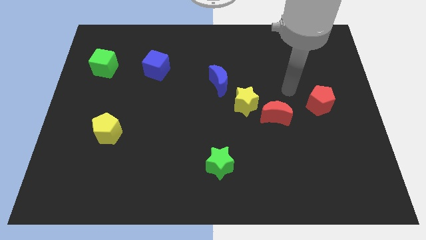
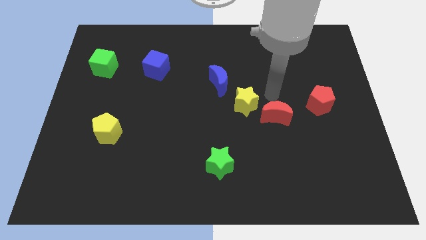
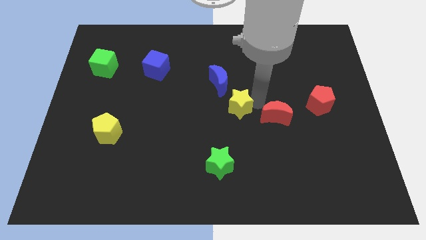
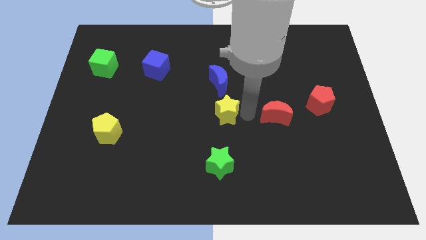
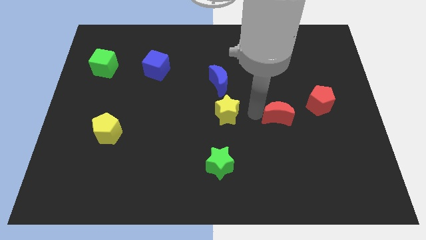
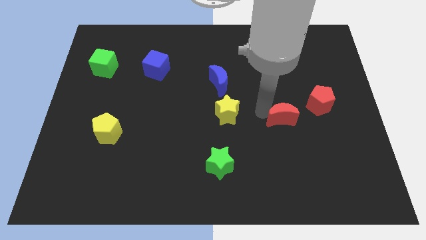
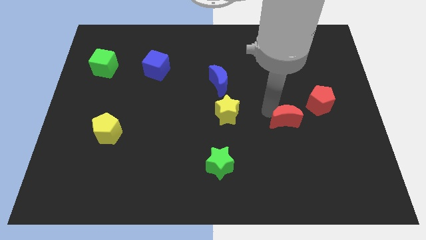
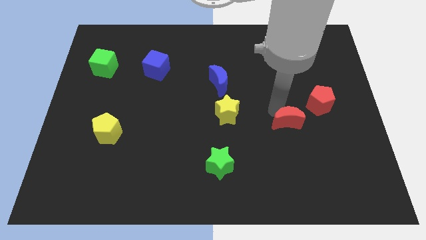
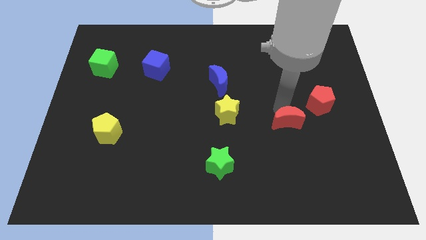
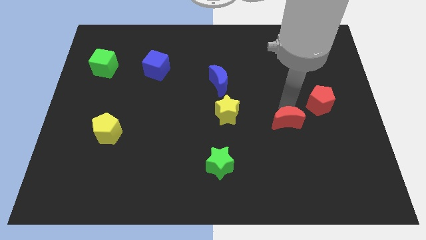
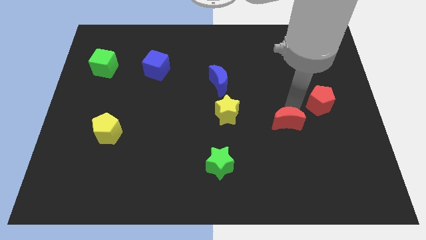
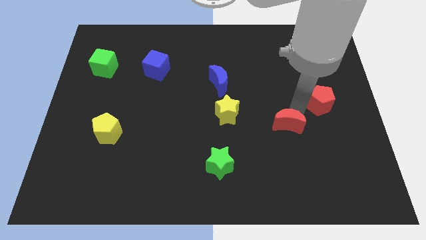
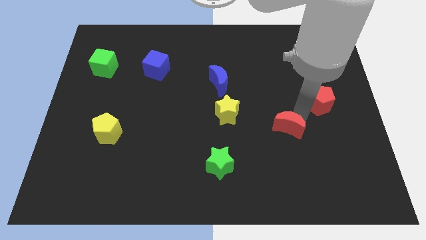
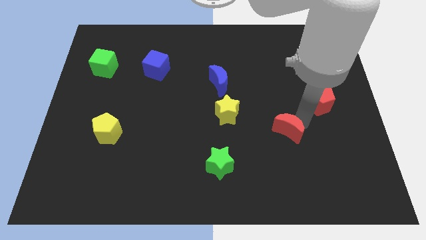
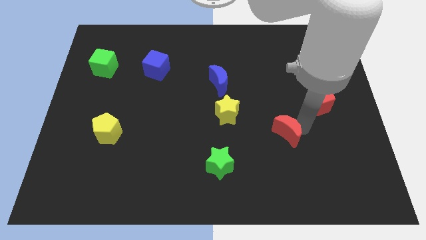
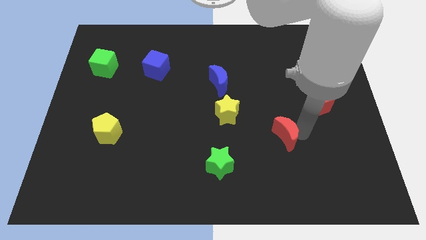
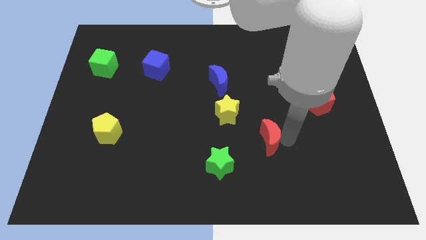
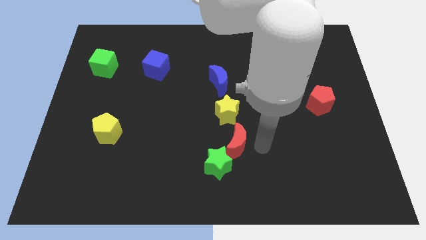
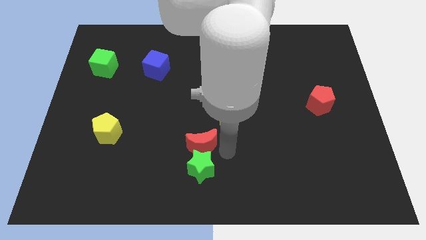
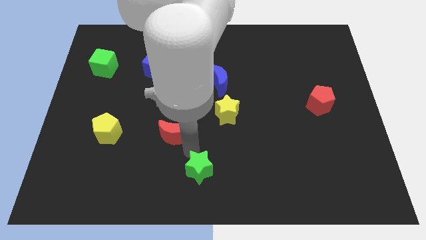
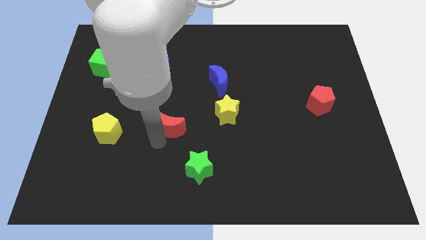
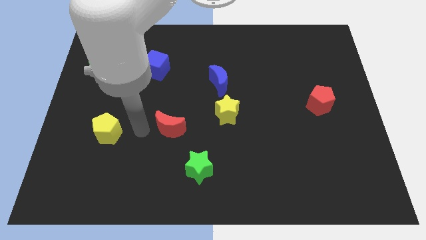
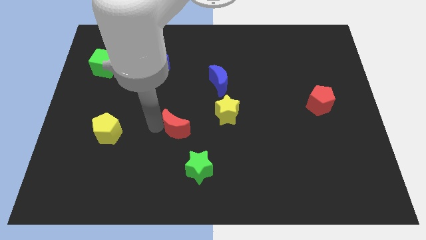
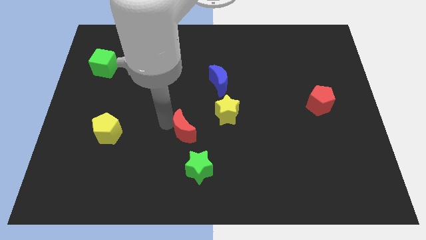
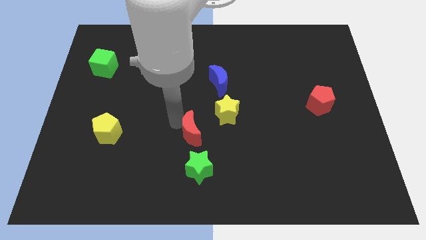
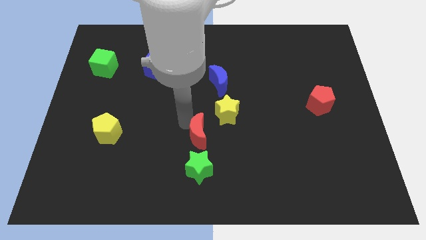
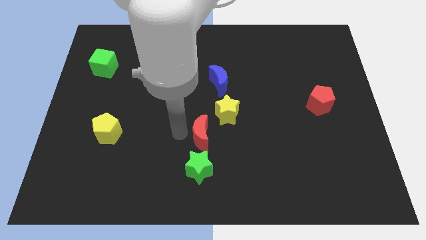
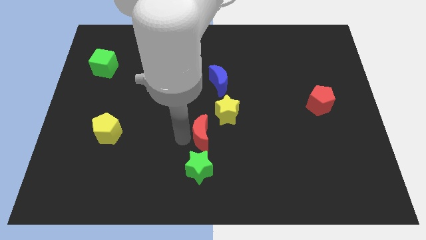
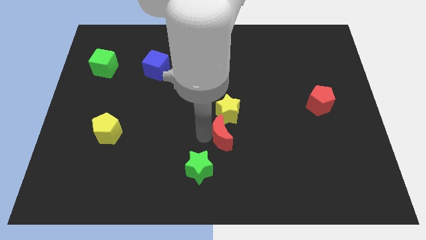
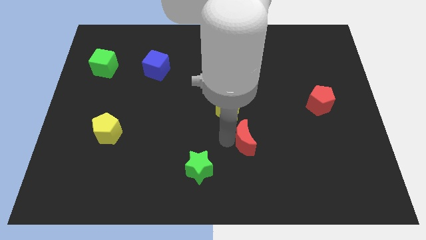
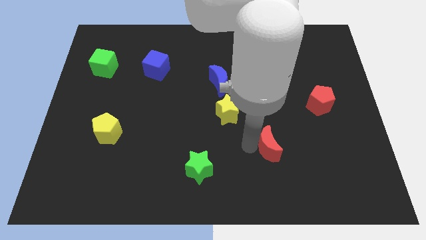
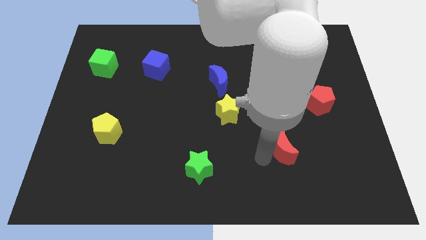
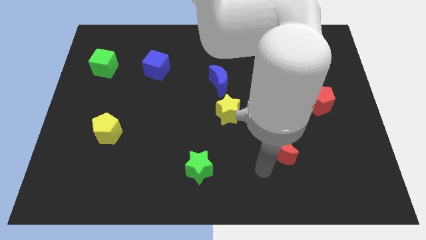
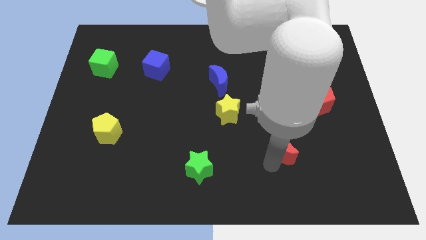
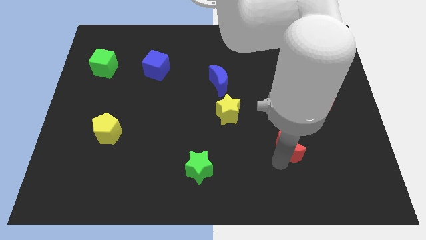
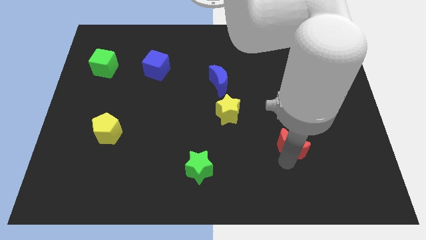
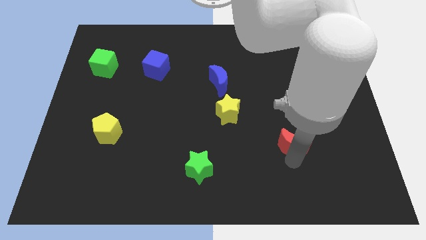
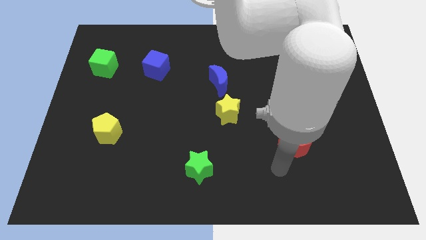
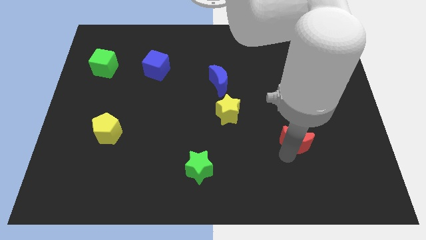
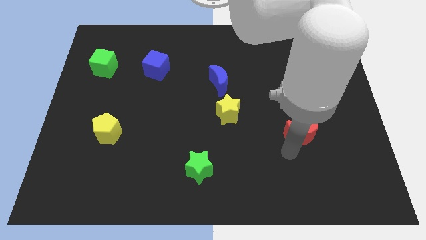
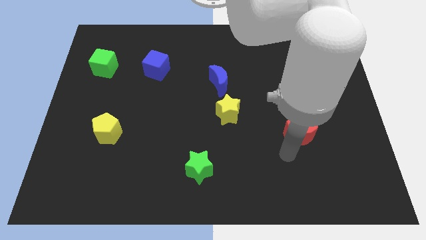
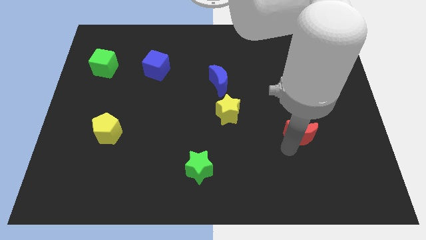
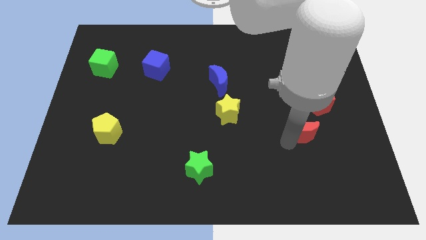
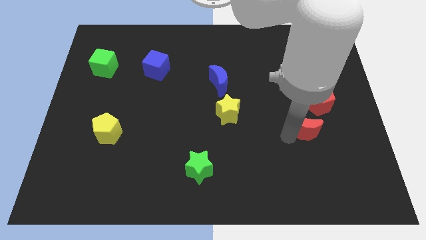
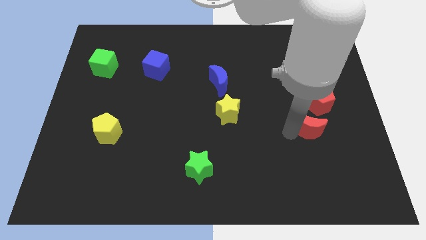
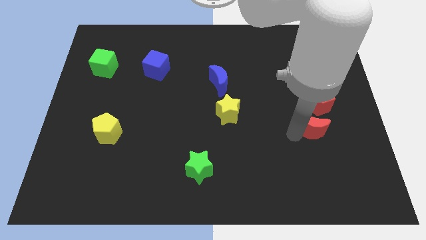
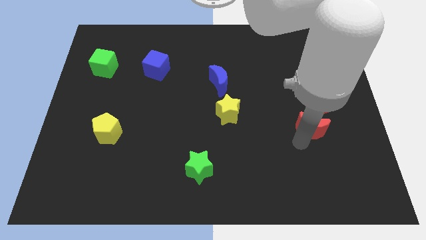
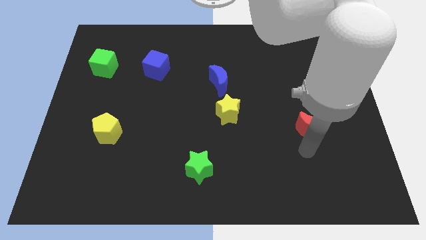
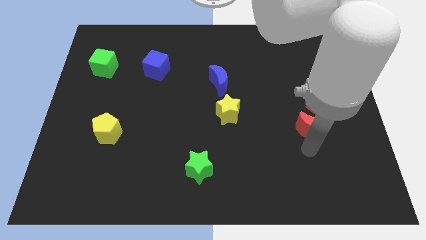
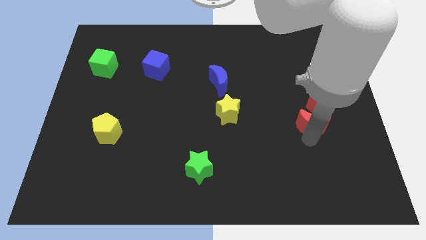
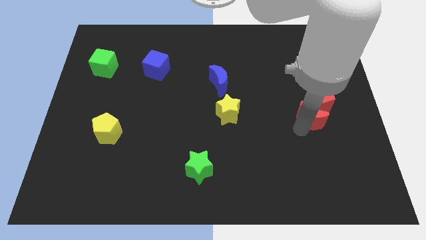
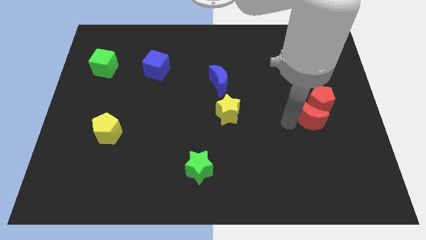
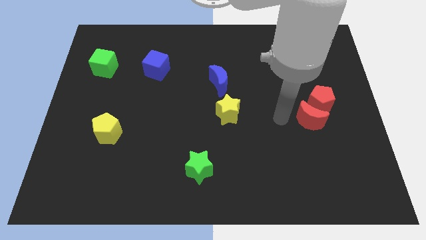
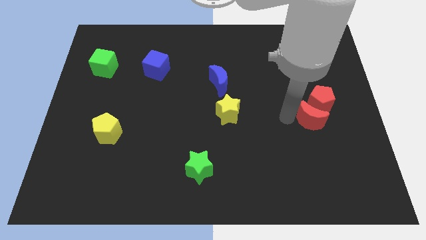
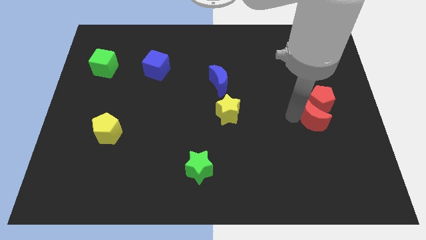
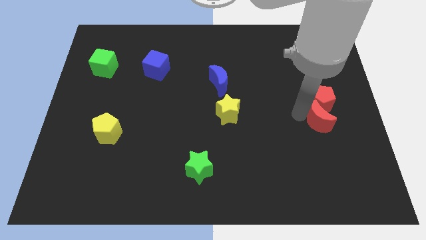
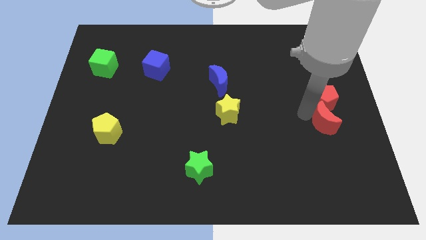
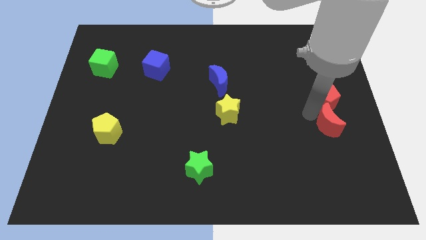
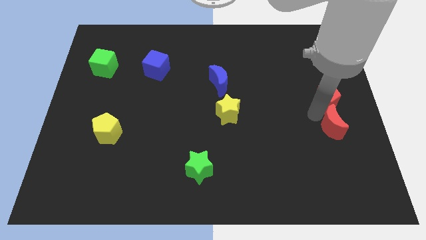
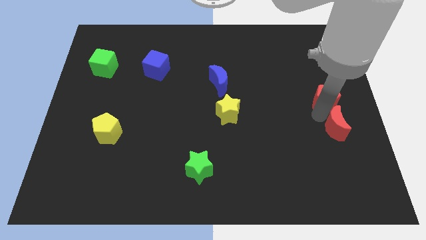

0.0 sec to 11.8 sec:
push the red moon to the center right
